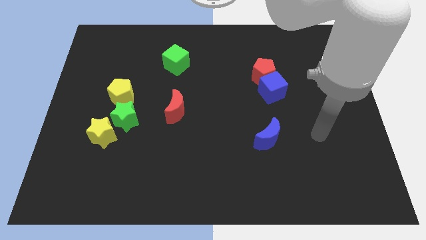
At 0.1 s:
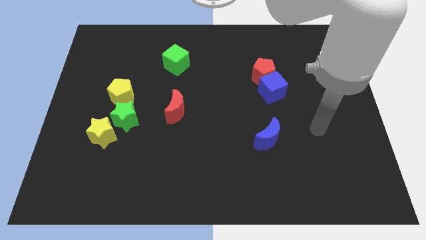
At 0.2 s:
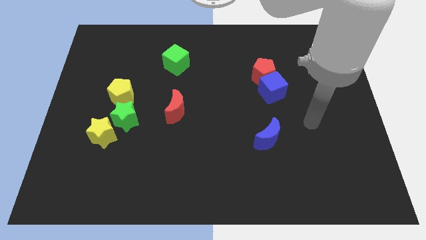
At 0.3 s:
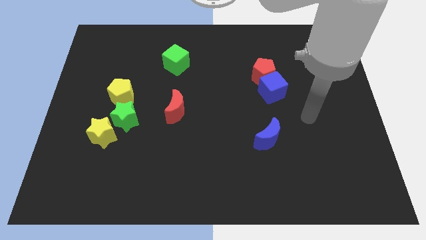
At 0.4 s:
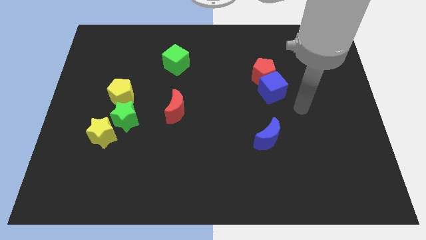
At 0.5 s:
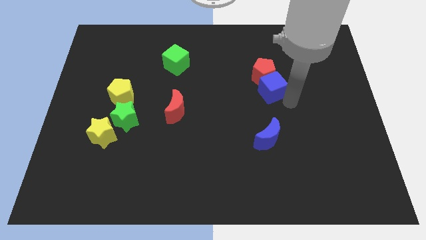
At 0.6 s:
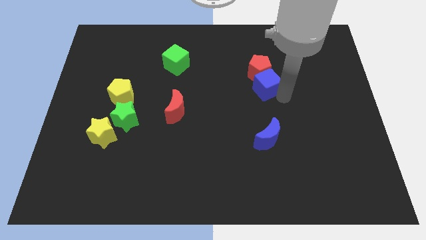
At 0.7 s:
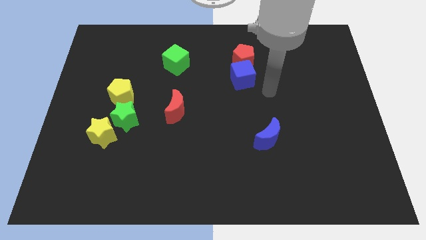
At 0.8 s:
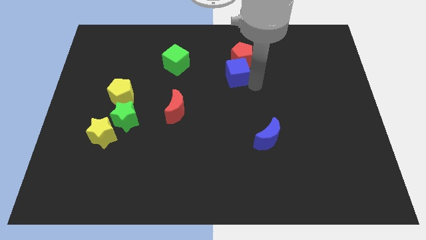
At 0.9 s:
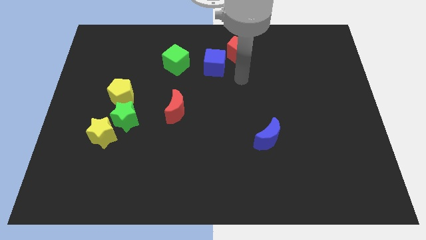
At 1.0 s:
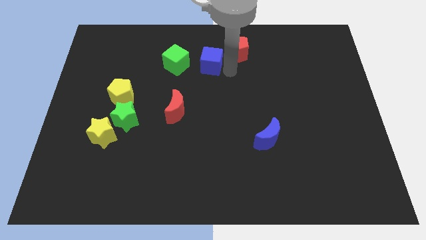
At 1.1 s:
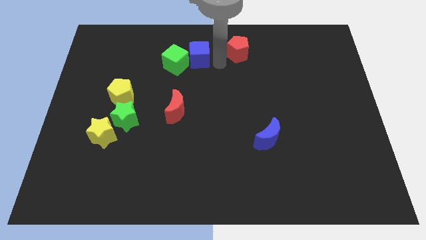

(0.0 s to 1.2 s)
move the red pentagon away from the blue cube

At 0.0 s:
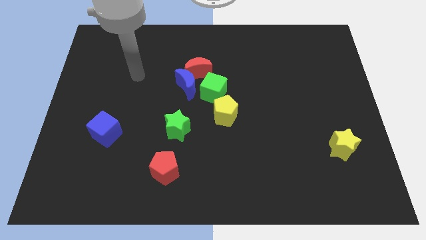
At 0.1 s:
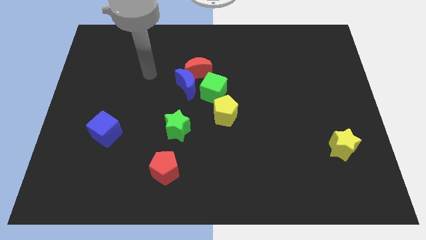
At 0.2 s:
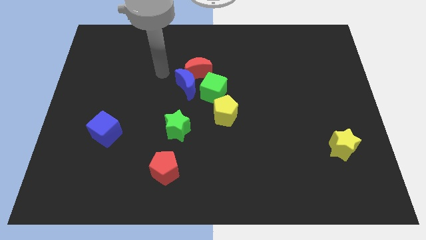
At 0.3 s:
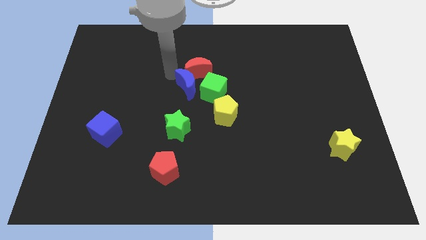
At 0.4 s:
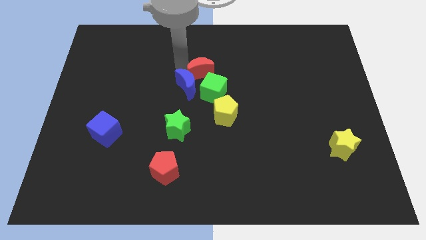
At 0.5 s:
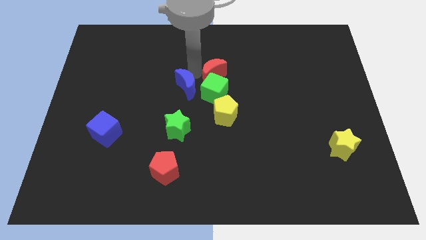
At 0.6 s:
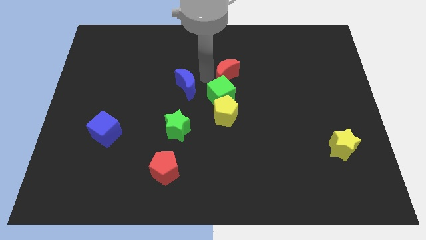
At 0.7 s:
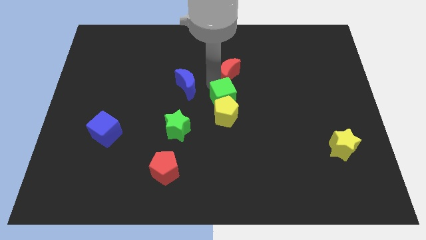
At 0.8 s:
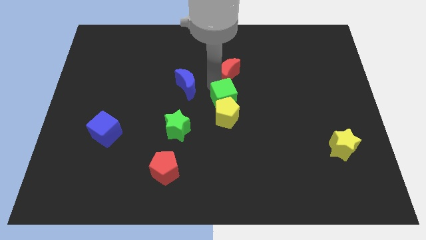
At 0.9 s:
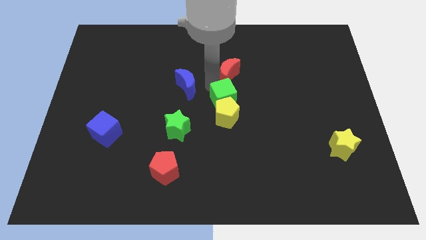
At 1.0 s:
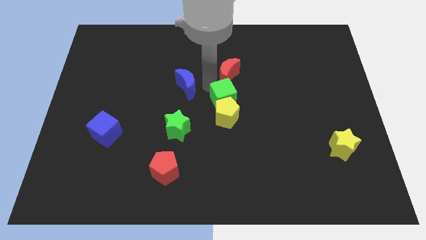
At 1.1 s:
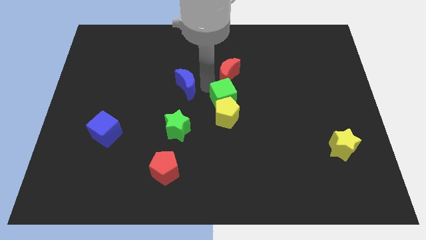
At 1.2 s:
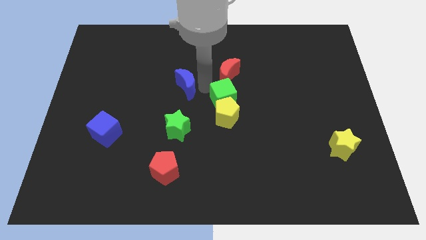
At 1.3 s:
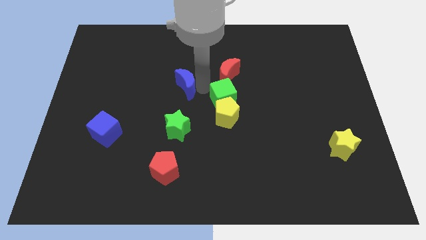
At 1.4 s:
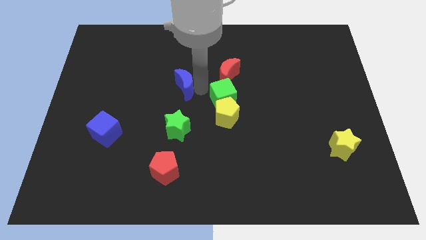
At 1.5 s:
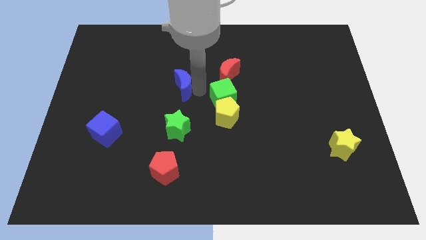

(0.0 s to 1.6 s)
move the blue moon away from the red moon and green cube

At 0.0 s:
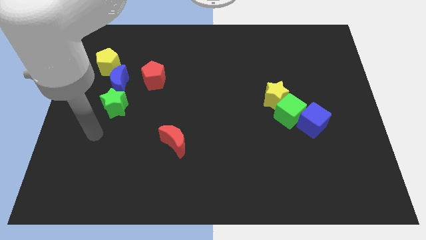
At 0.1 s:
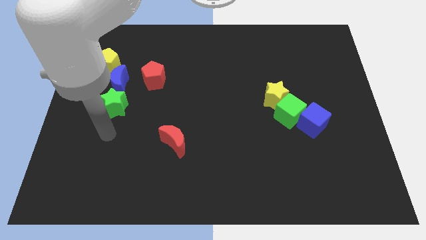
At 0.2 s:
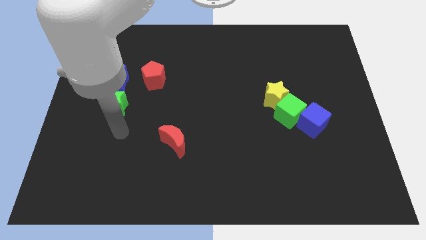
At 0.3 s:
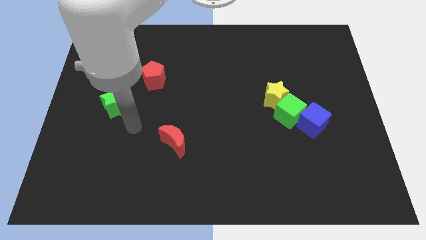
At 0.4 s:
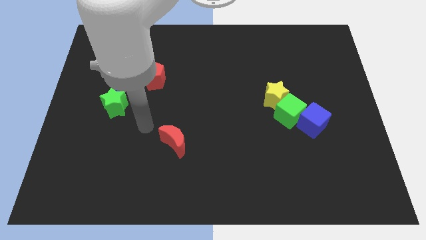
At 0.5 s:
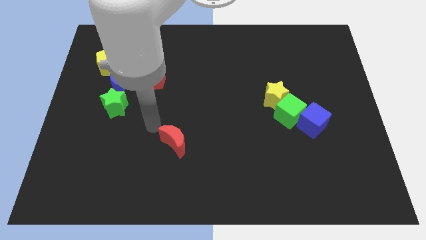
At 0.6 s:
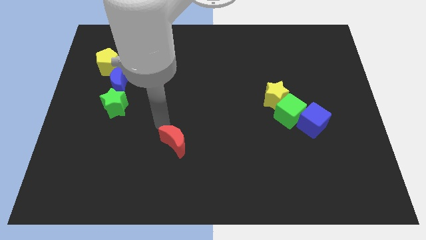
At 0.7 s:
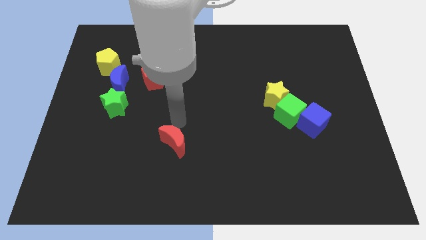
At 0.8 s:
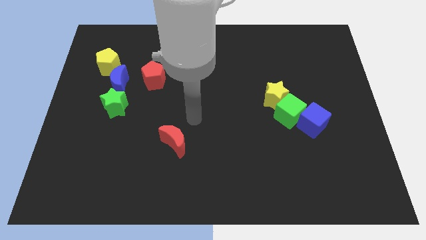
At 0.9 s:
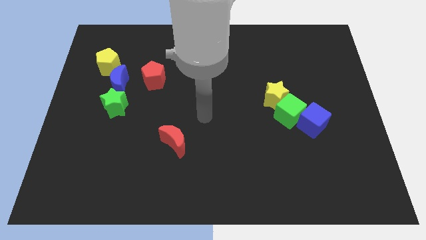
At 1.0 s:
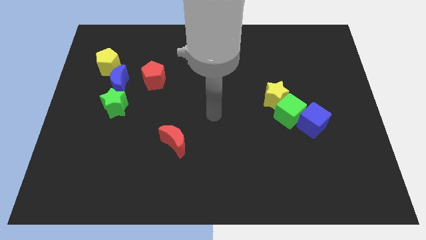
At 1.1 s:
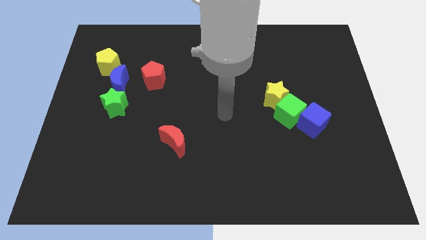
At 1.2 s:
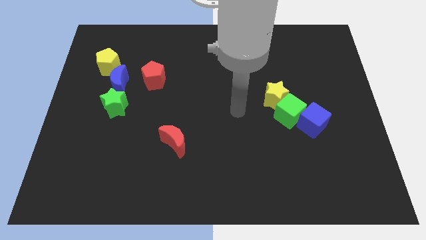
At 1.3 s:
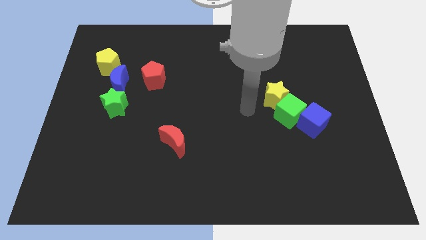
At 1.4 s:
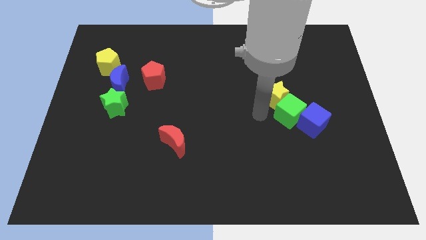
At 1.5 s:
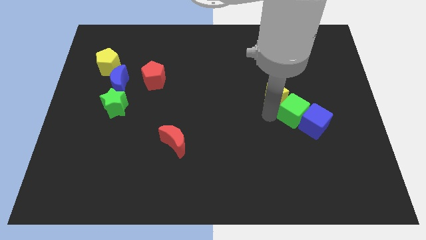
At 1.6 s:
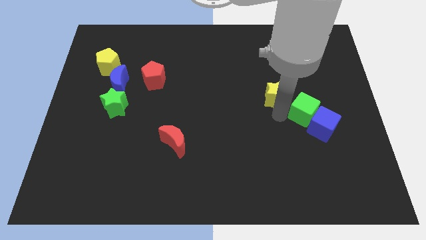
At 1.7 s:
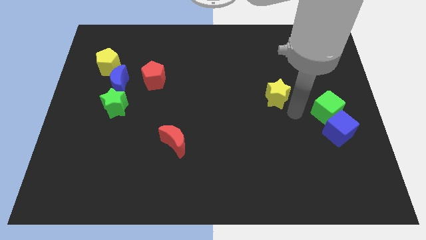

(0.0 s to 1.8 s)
separate the yellow star from the green cube

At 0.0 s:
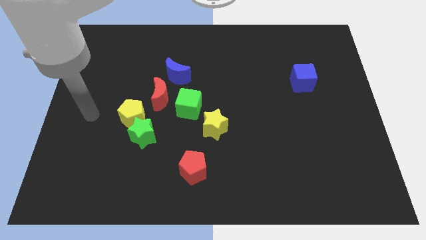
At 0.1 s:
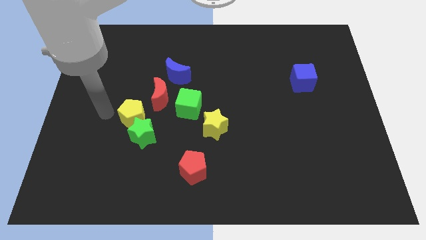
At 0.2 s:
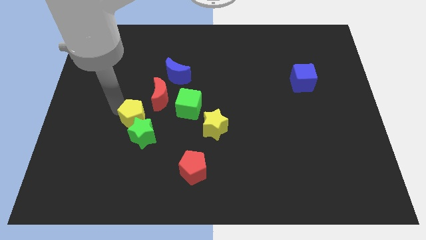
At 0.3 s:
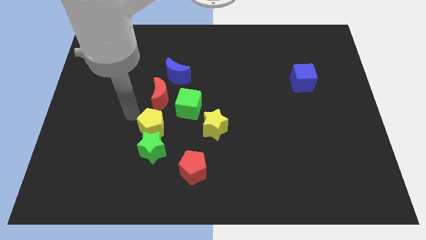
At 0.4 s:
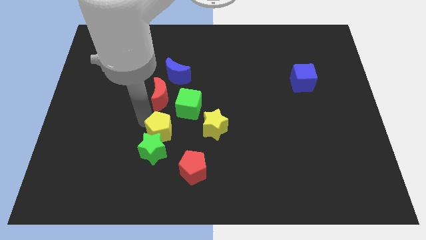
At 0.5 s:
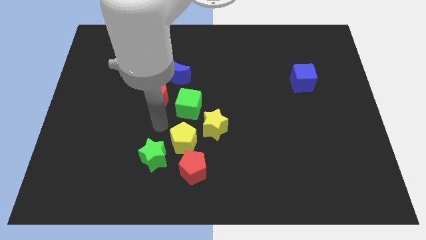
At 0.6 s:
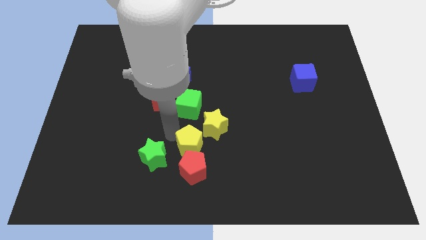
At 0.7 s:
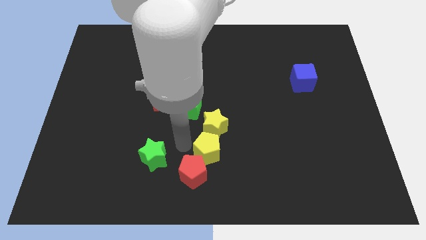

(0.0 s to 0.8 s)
pull the green star apart from the yellow pentagon

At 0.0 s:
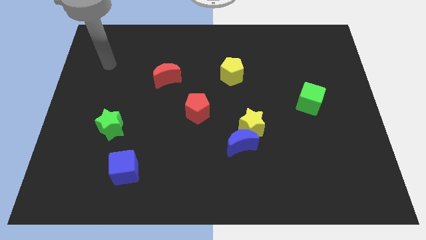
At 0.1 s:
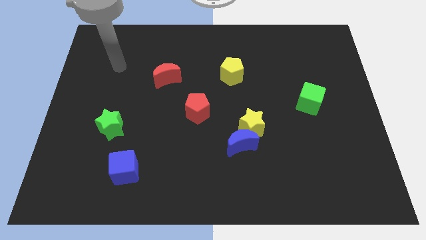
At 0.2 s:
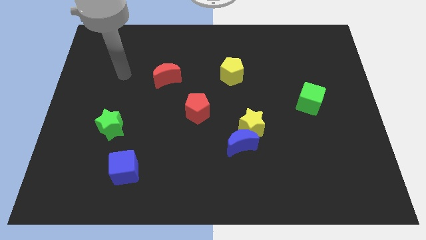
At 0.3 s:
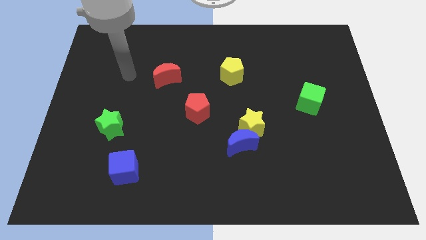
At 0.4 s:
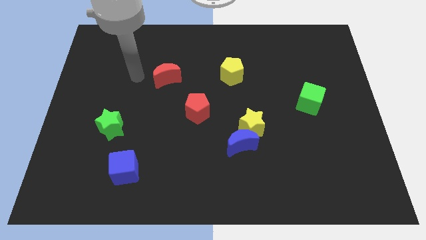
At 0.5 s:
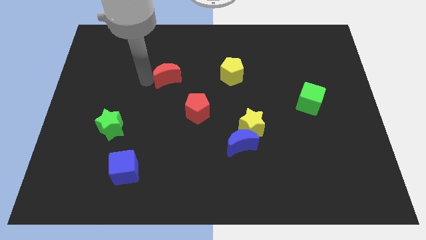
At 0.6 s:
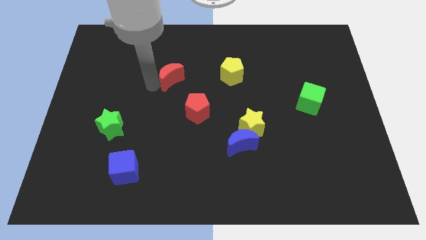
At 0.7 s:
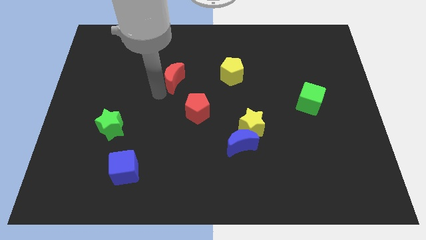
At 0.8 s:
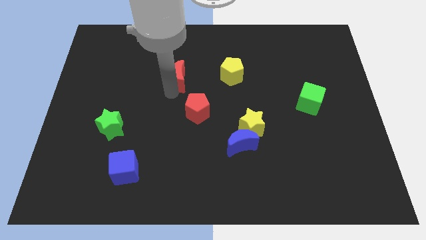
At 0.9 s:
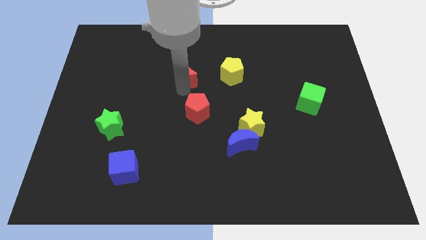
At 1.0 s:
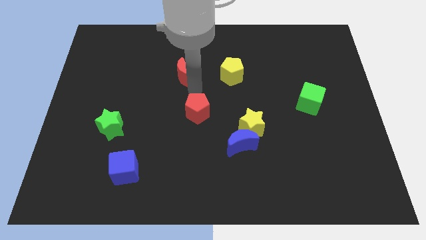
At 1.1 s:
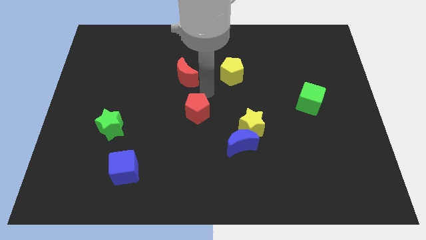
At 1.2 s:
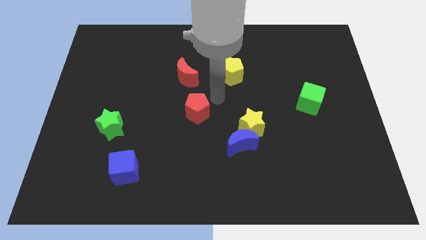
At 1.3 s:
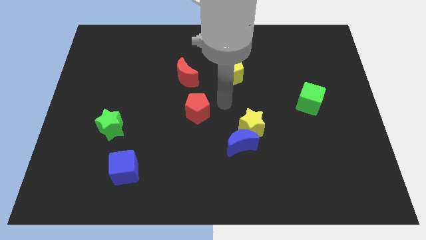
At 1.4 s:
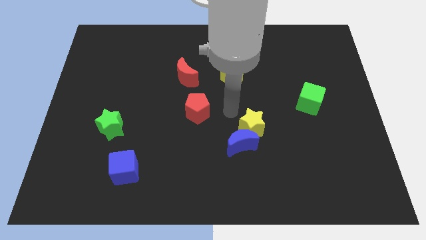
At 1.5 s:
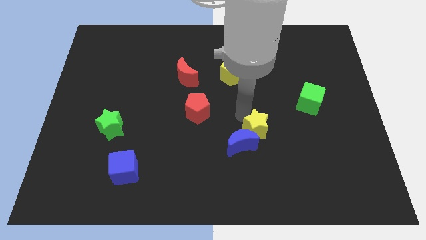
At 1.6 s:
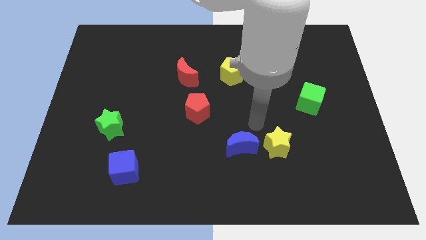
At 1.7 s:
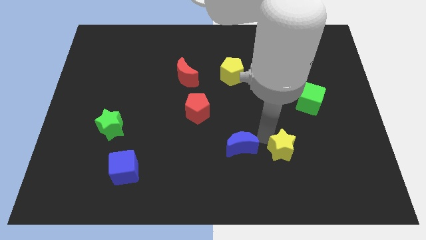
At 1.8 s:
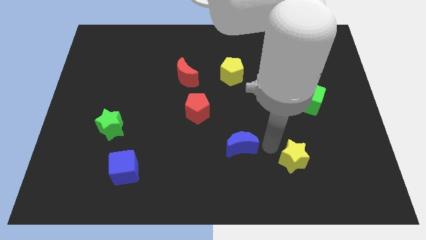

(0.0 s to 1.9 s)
separate the blue moon from the yellow star

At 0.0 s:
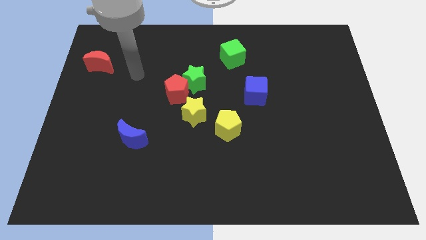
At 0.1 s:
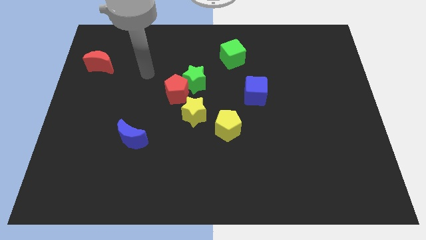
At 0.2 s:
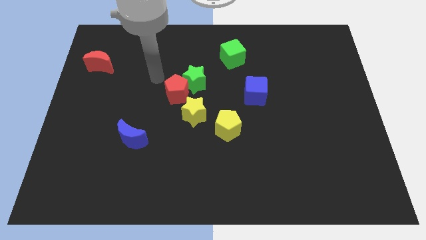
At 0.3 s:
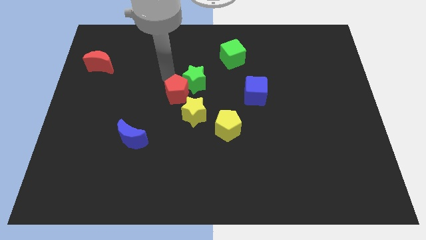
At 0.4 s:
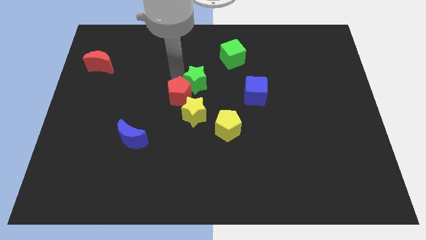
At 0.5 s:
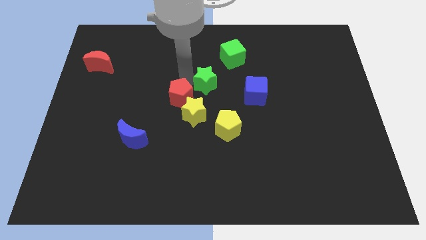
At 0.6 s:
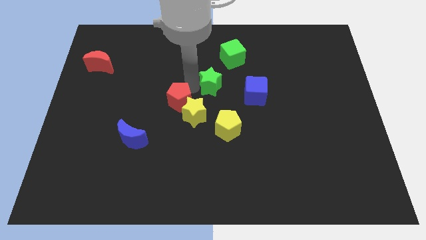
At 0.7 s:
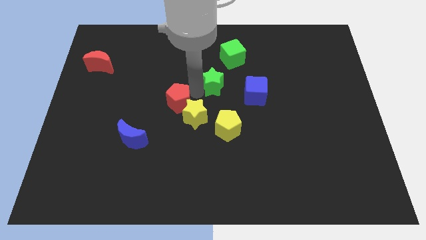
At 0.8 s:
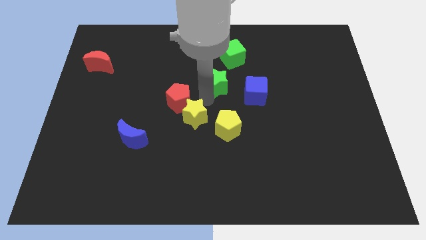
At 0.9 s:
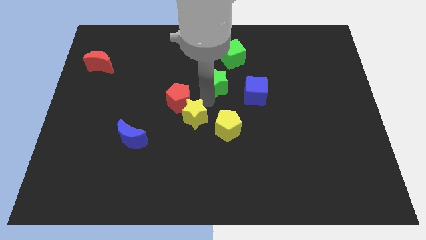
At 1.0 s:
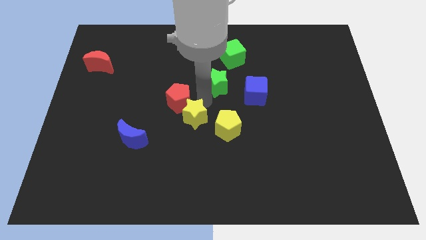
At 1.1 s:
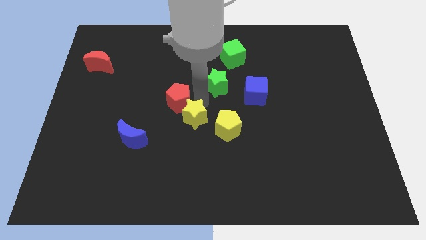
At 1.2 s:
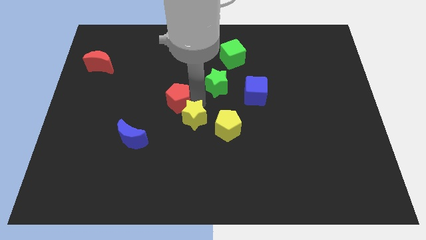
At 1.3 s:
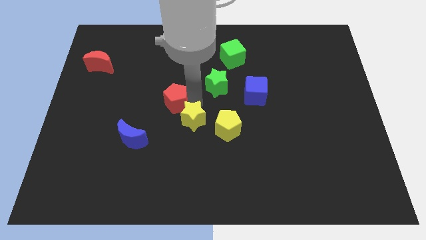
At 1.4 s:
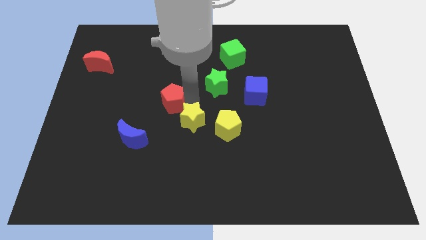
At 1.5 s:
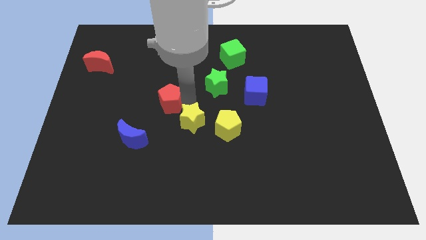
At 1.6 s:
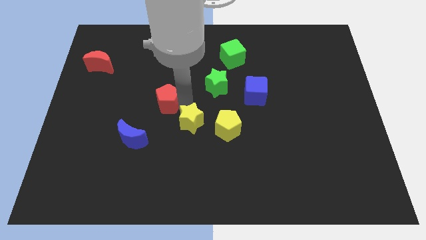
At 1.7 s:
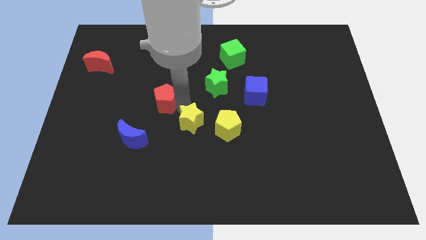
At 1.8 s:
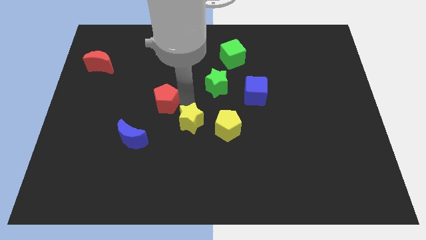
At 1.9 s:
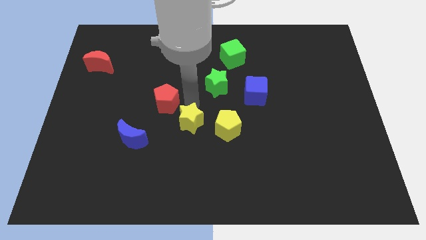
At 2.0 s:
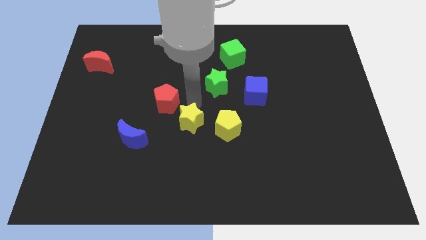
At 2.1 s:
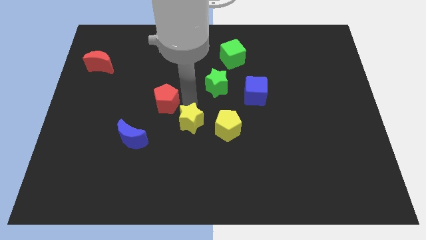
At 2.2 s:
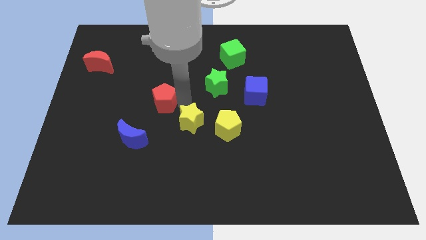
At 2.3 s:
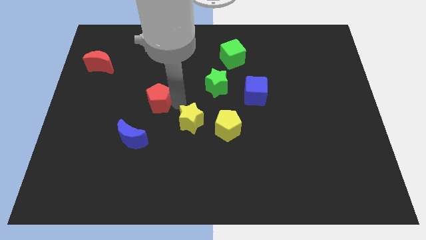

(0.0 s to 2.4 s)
move the red pentagon away from the green star and yellow star
